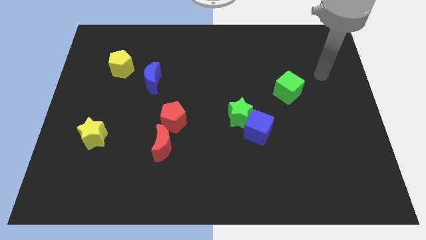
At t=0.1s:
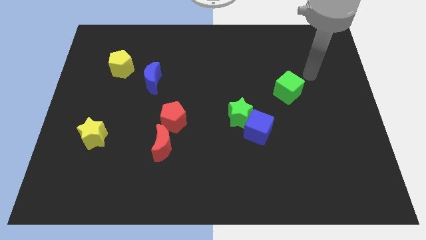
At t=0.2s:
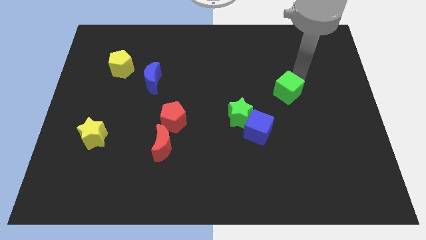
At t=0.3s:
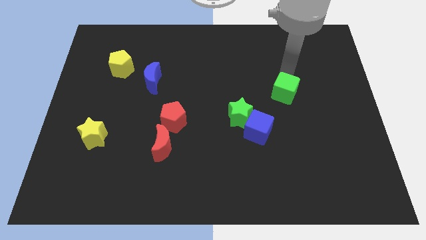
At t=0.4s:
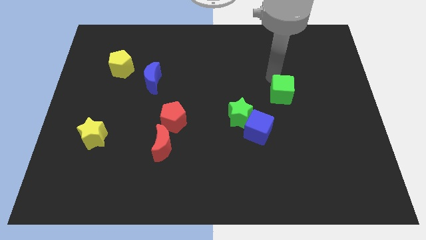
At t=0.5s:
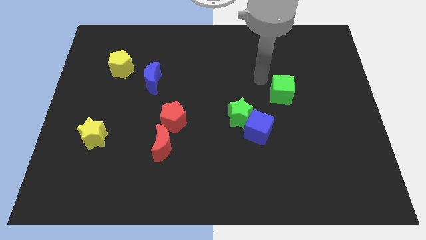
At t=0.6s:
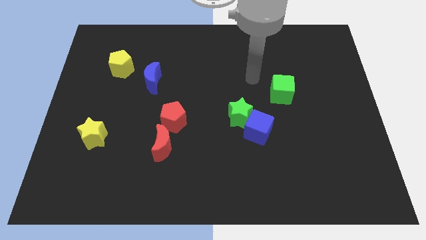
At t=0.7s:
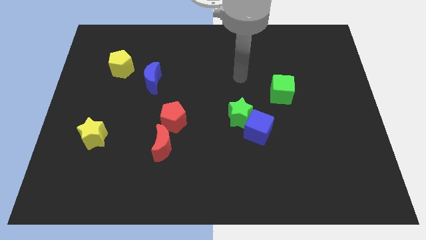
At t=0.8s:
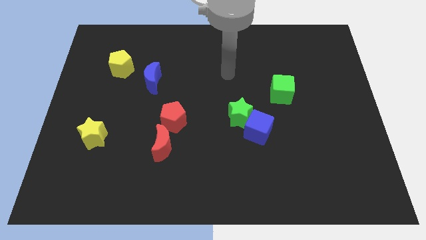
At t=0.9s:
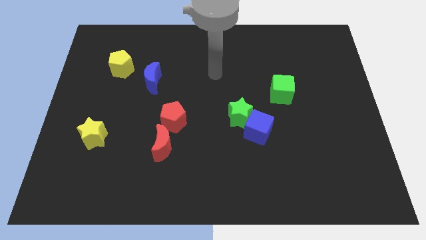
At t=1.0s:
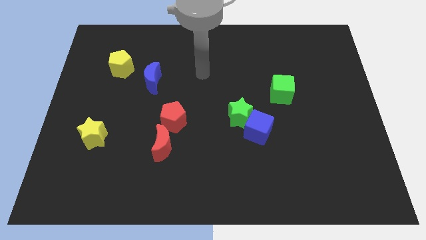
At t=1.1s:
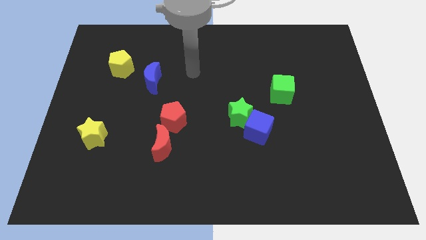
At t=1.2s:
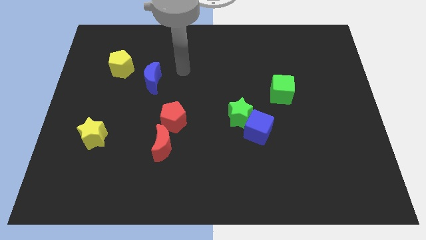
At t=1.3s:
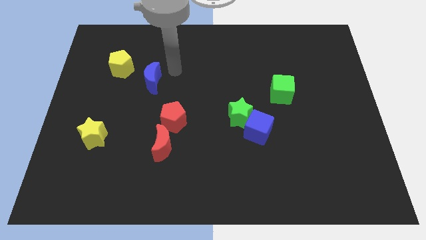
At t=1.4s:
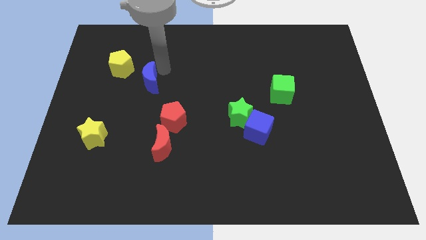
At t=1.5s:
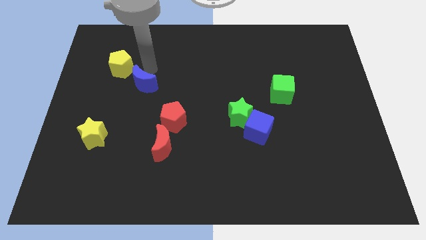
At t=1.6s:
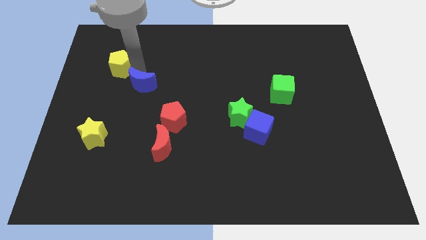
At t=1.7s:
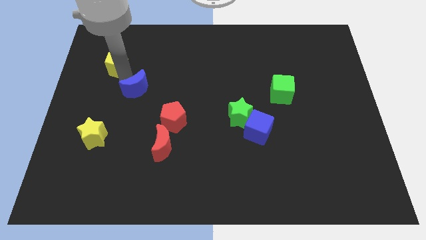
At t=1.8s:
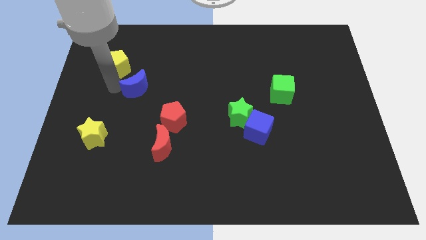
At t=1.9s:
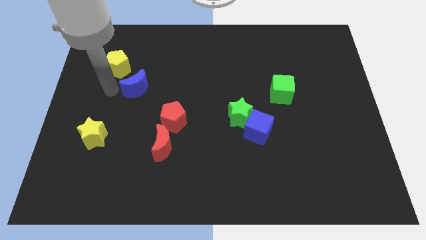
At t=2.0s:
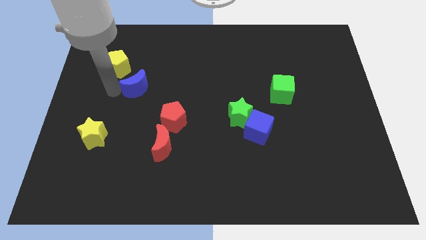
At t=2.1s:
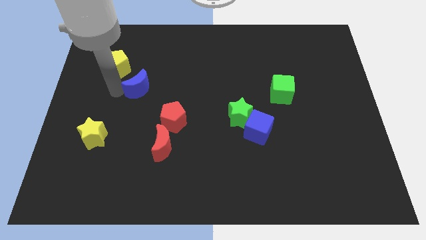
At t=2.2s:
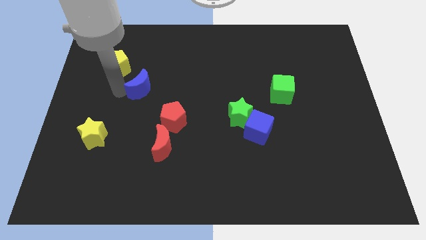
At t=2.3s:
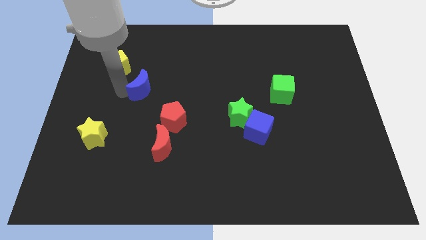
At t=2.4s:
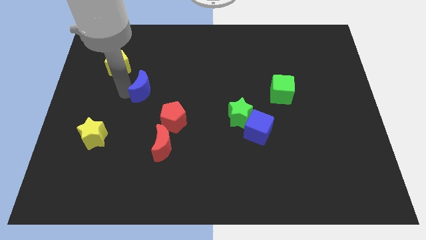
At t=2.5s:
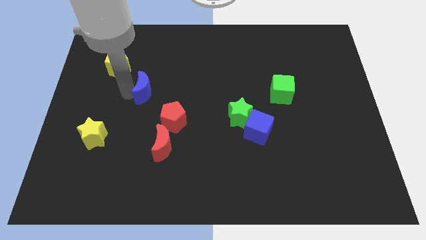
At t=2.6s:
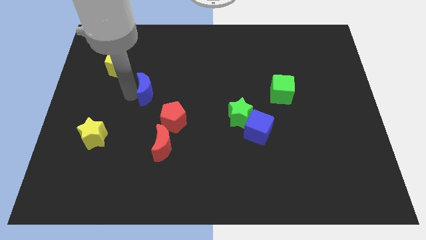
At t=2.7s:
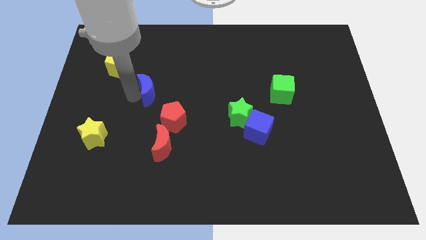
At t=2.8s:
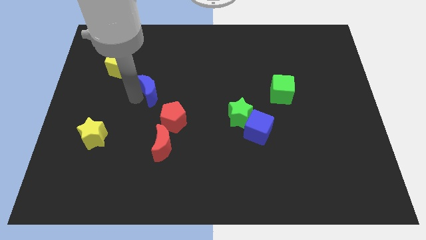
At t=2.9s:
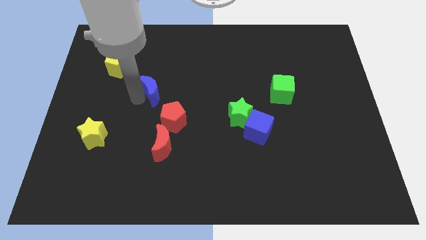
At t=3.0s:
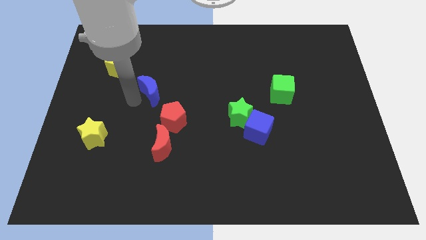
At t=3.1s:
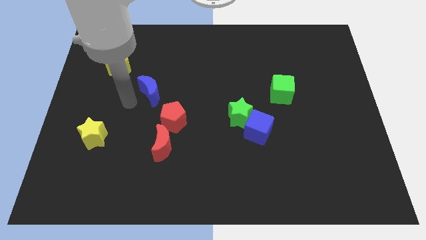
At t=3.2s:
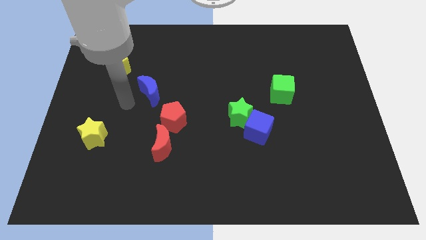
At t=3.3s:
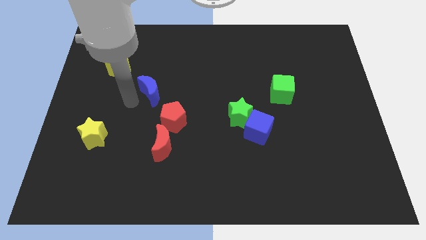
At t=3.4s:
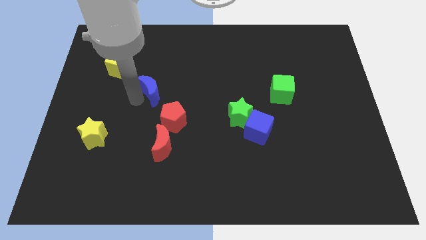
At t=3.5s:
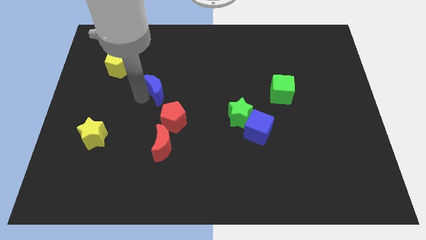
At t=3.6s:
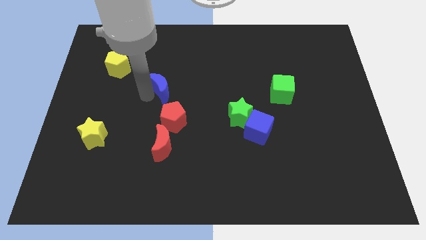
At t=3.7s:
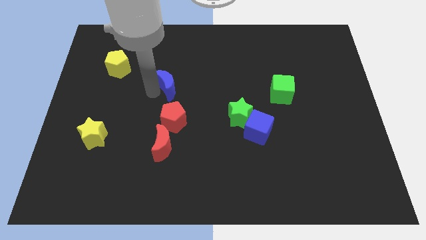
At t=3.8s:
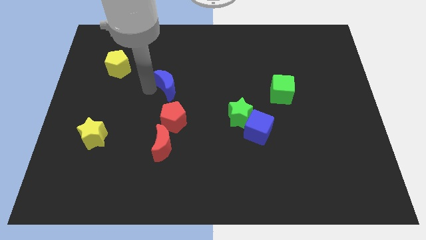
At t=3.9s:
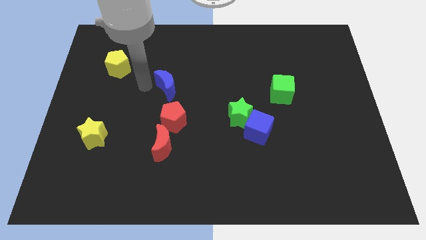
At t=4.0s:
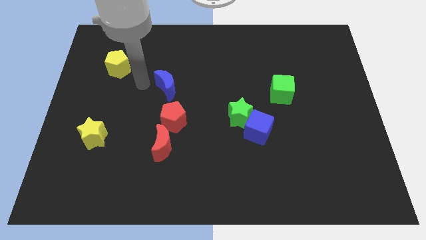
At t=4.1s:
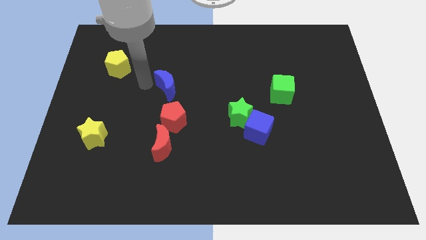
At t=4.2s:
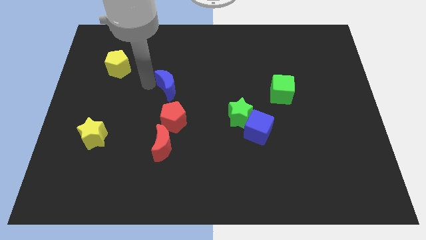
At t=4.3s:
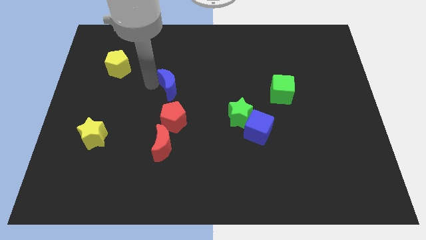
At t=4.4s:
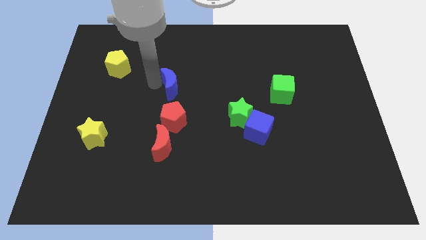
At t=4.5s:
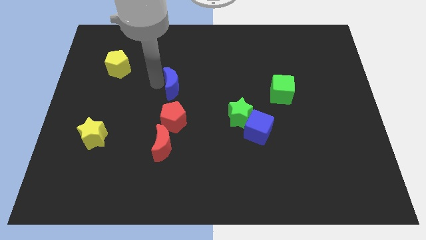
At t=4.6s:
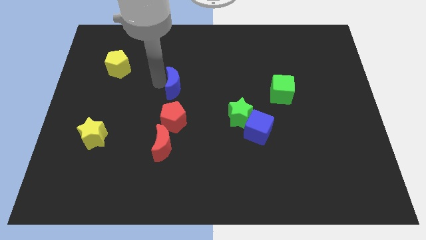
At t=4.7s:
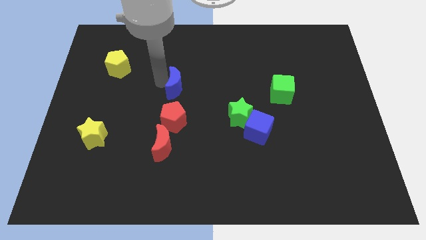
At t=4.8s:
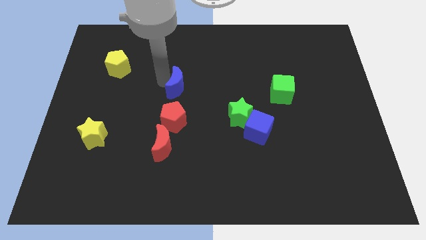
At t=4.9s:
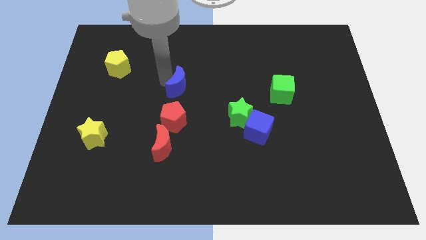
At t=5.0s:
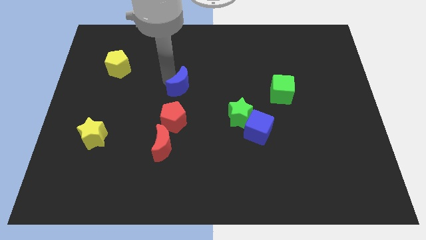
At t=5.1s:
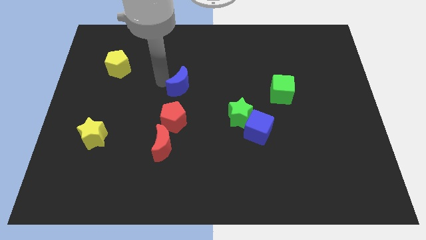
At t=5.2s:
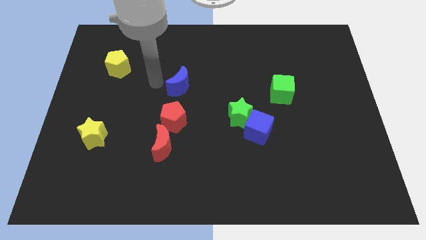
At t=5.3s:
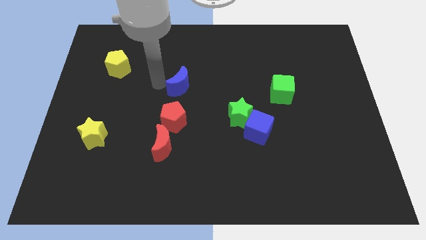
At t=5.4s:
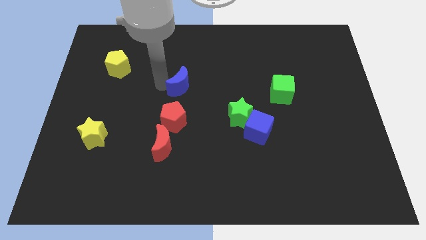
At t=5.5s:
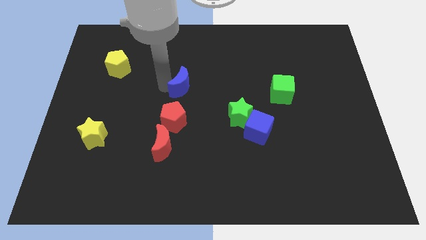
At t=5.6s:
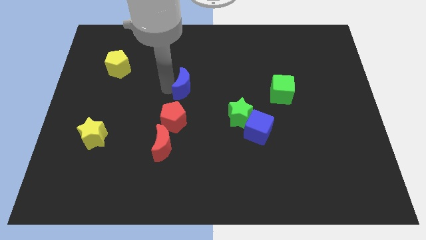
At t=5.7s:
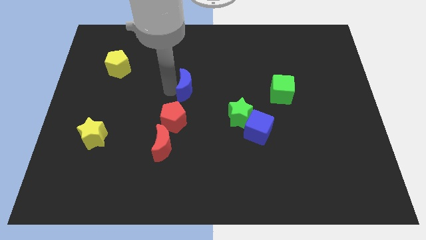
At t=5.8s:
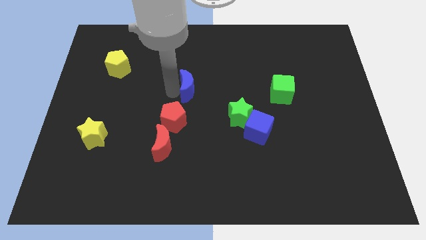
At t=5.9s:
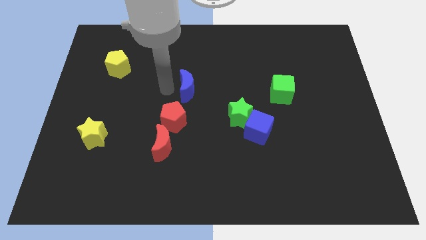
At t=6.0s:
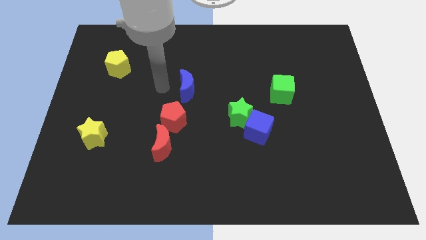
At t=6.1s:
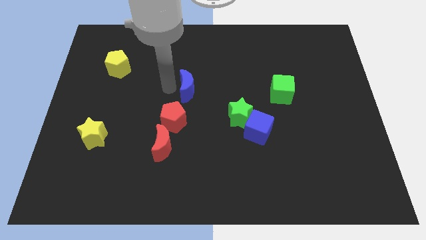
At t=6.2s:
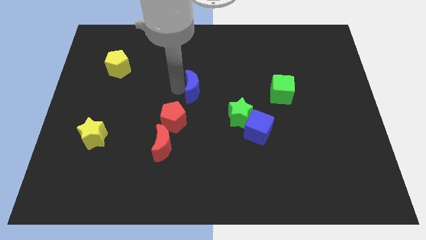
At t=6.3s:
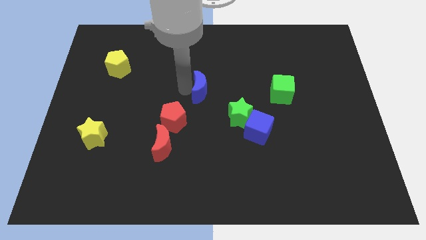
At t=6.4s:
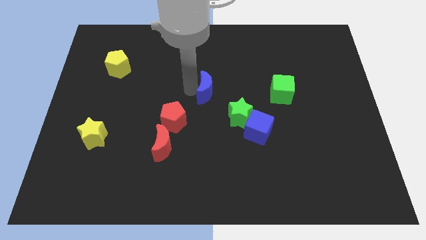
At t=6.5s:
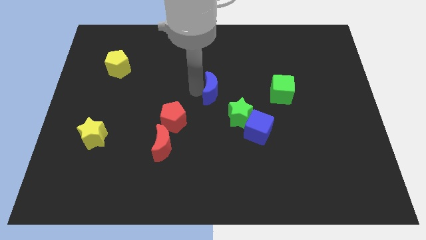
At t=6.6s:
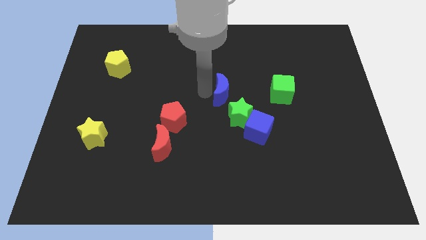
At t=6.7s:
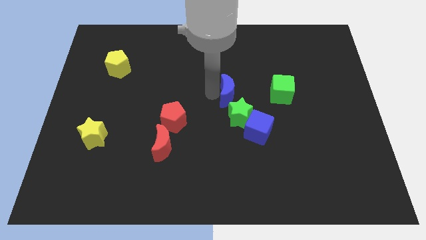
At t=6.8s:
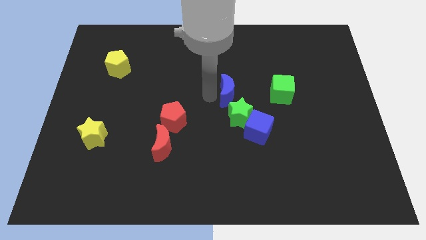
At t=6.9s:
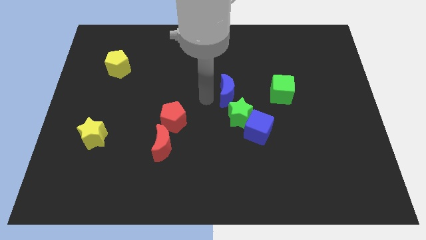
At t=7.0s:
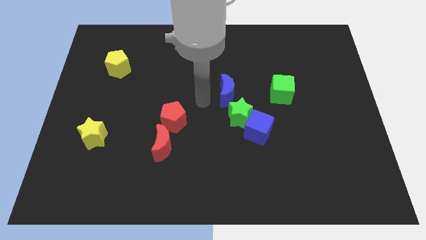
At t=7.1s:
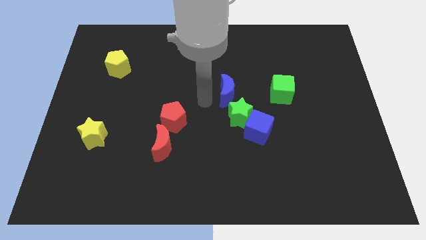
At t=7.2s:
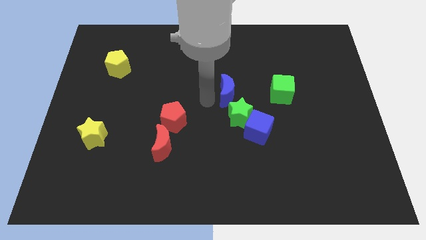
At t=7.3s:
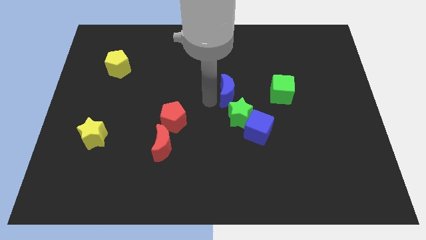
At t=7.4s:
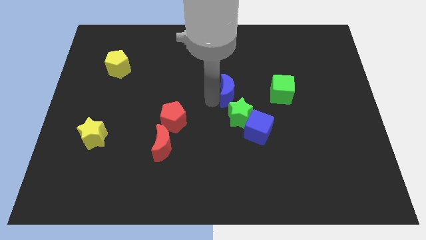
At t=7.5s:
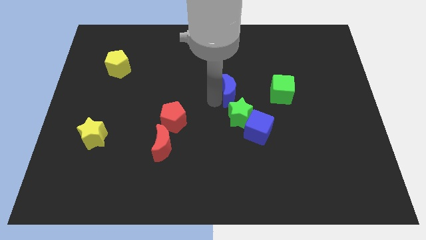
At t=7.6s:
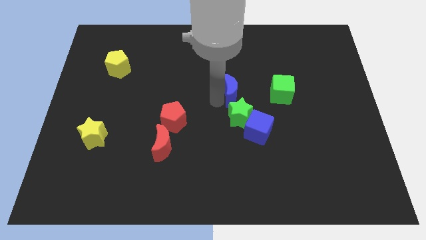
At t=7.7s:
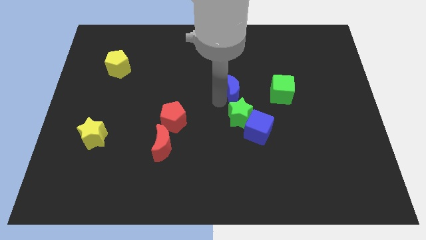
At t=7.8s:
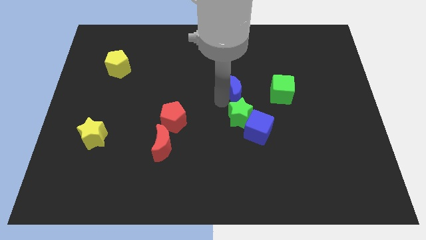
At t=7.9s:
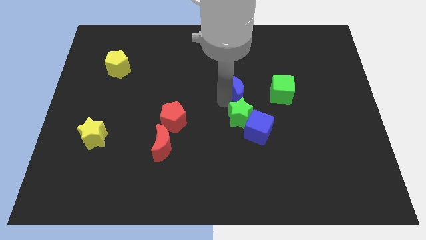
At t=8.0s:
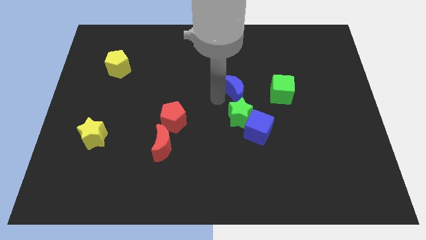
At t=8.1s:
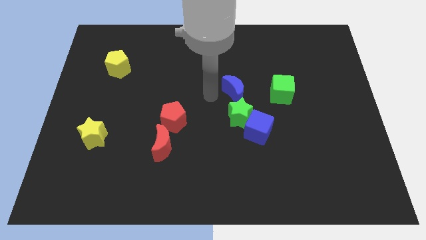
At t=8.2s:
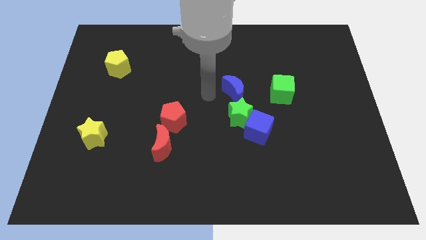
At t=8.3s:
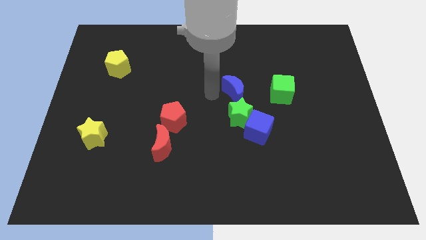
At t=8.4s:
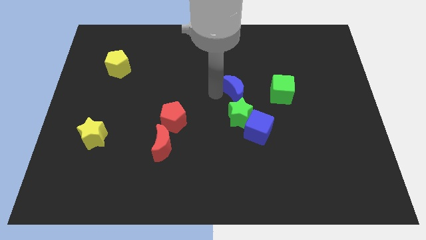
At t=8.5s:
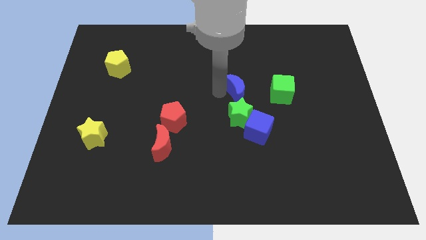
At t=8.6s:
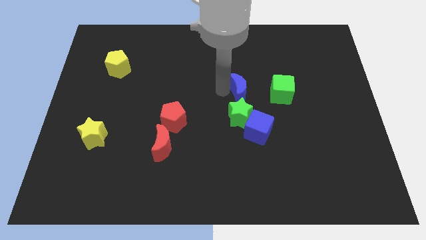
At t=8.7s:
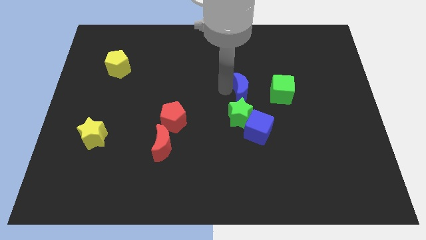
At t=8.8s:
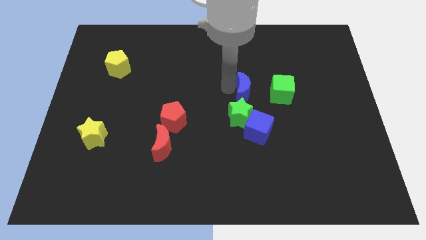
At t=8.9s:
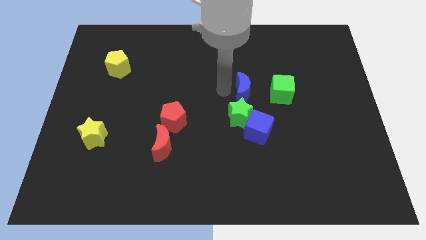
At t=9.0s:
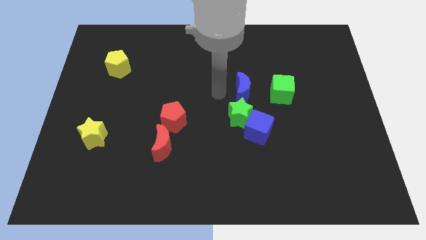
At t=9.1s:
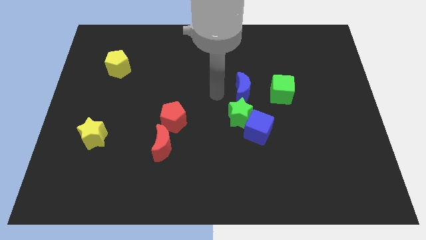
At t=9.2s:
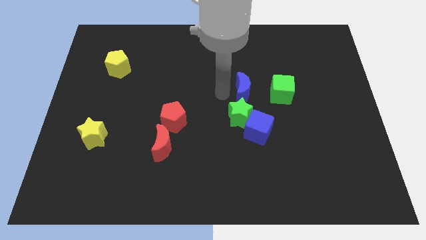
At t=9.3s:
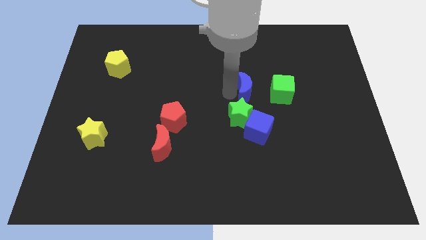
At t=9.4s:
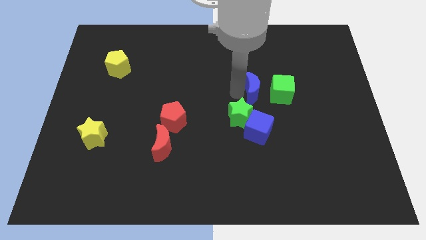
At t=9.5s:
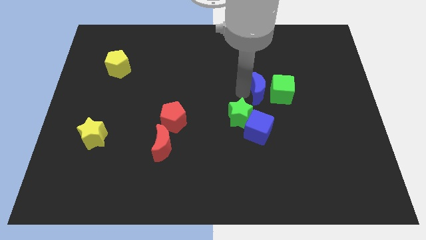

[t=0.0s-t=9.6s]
move the blue moon close to the green cube
